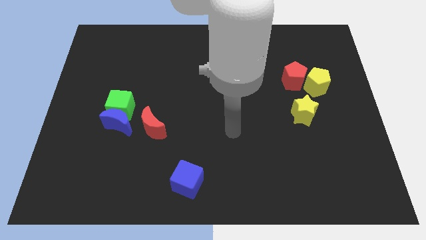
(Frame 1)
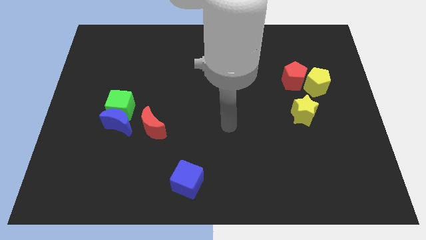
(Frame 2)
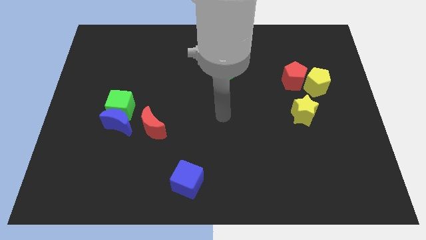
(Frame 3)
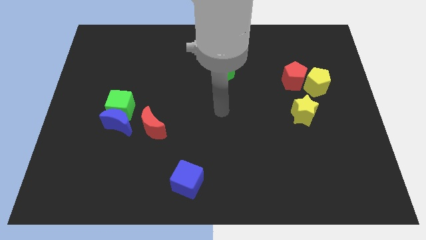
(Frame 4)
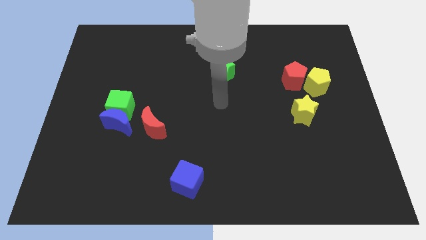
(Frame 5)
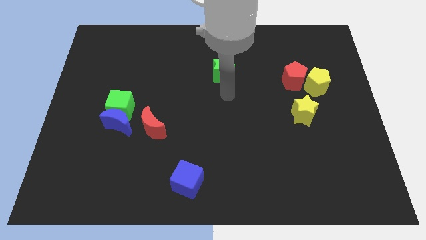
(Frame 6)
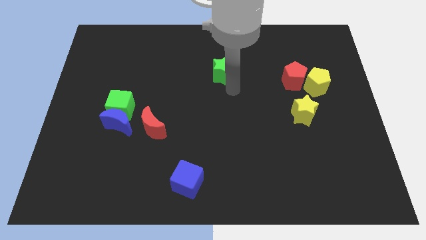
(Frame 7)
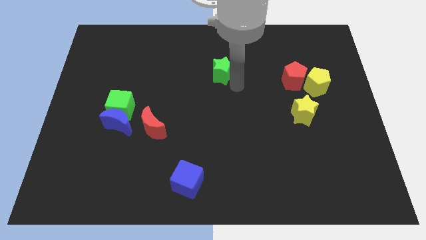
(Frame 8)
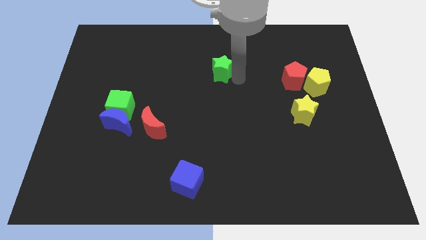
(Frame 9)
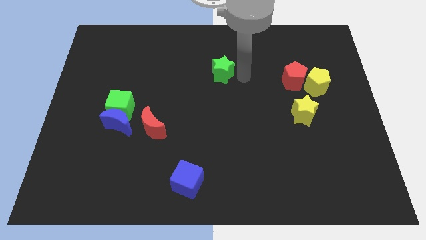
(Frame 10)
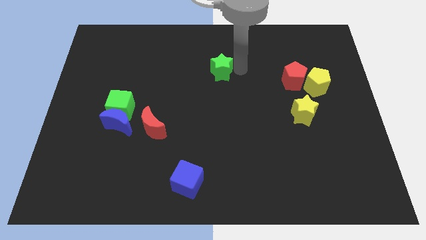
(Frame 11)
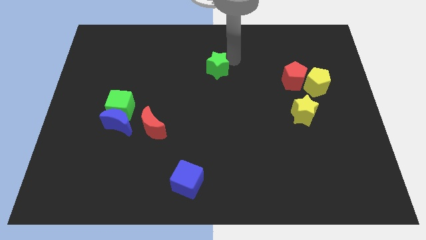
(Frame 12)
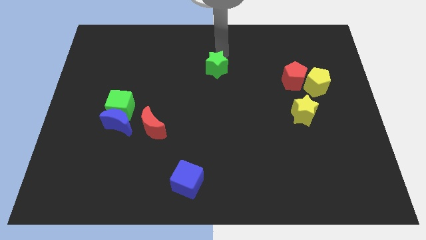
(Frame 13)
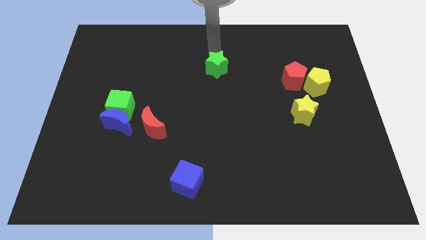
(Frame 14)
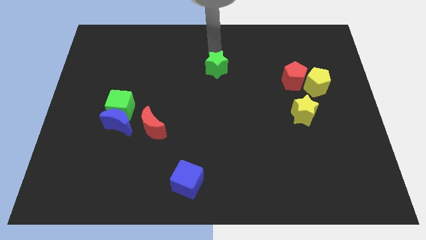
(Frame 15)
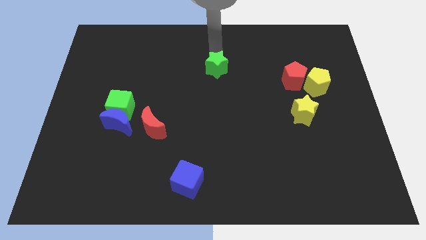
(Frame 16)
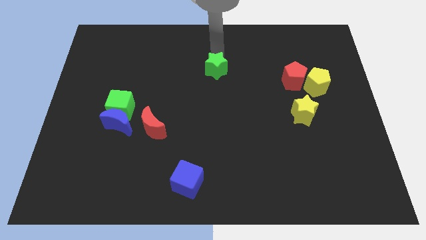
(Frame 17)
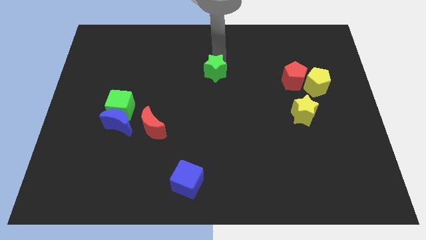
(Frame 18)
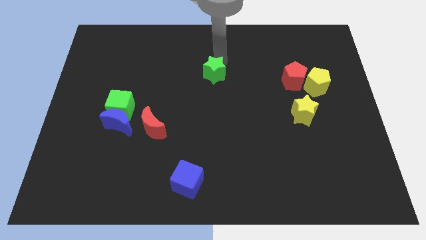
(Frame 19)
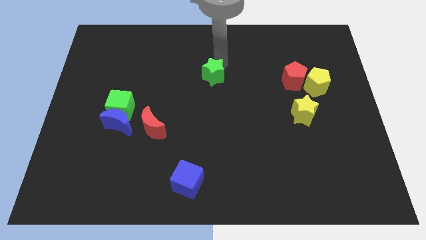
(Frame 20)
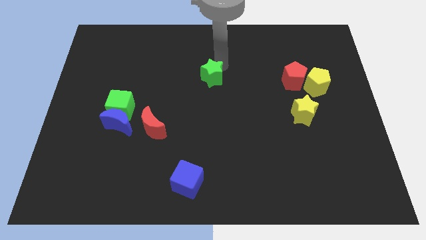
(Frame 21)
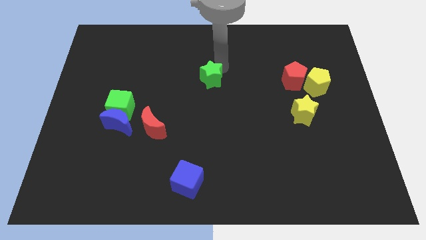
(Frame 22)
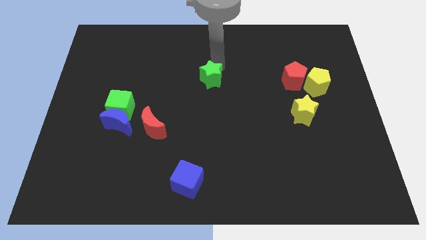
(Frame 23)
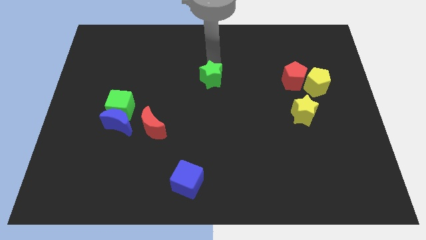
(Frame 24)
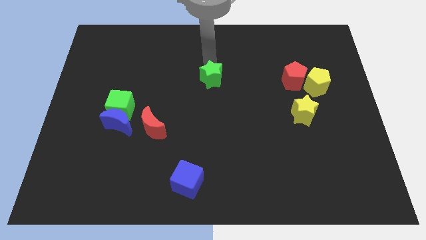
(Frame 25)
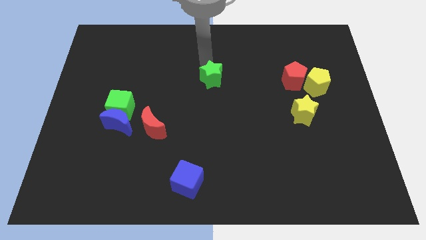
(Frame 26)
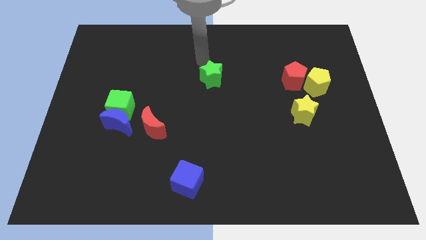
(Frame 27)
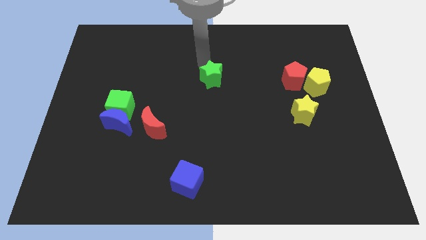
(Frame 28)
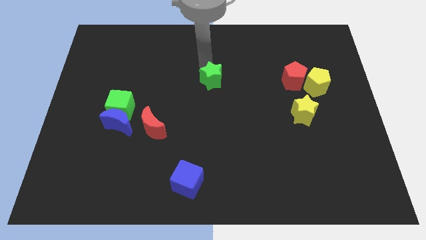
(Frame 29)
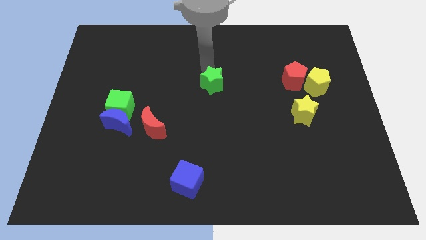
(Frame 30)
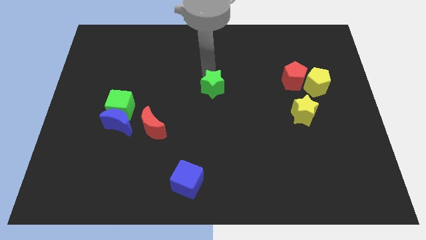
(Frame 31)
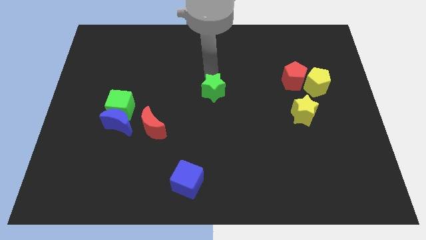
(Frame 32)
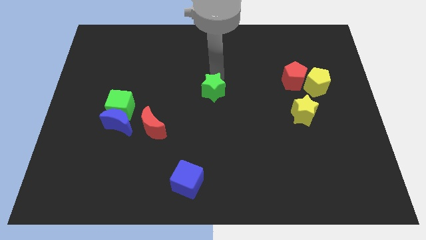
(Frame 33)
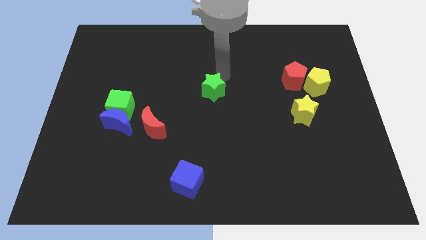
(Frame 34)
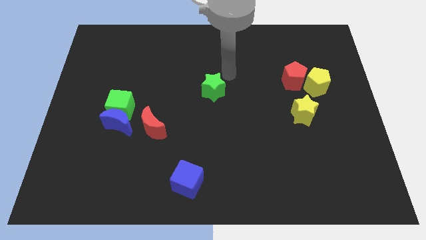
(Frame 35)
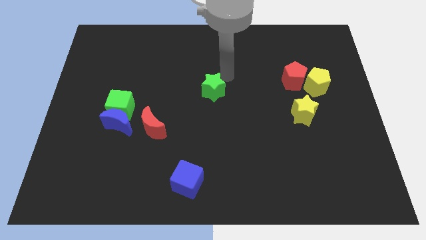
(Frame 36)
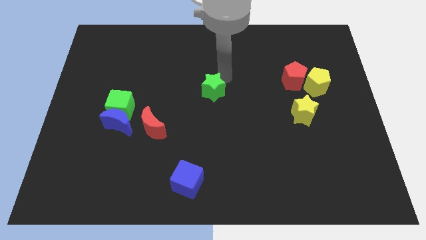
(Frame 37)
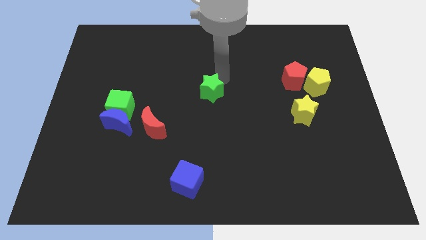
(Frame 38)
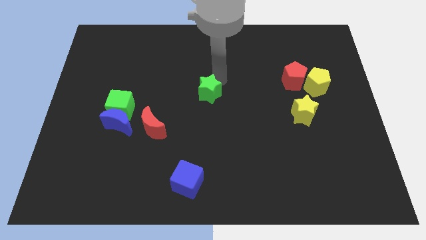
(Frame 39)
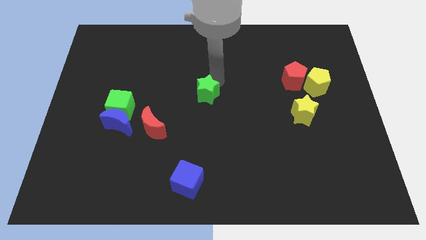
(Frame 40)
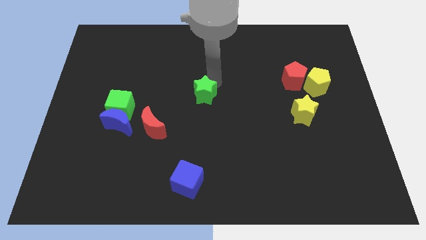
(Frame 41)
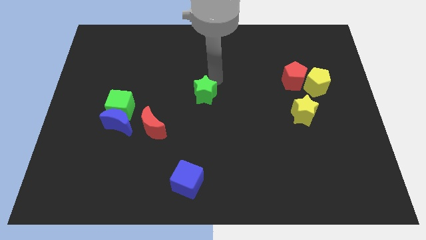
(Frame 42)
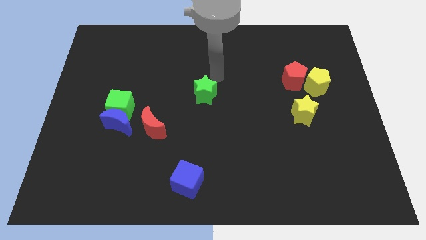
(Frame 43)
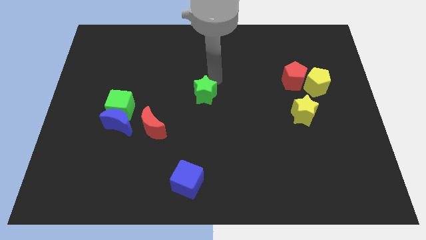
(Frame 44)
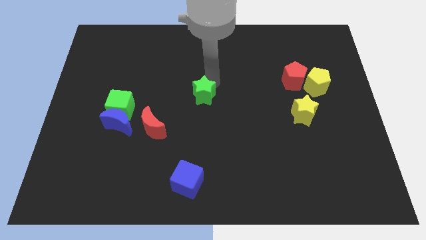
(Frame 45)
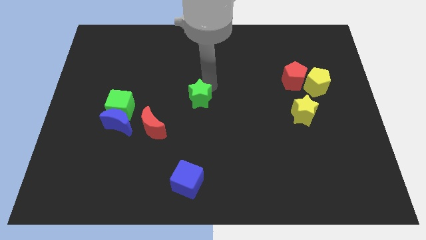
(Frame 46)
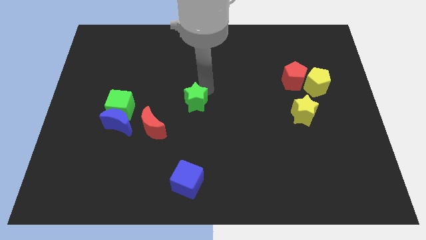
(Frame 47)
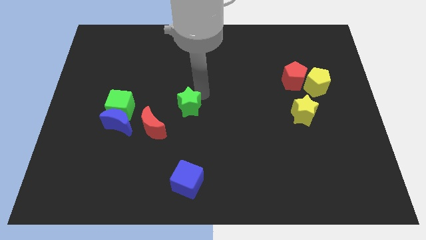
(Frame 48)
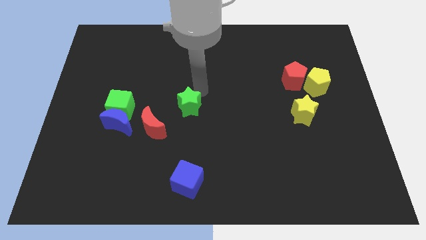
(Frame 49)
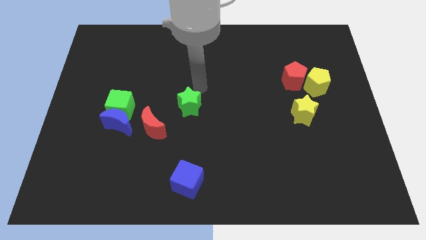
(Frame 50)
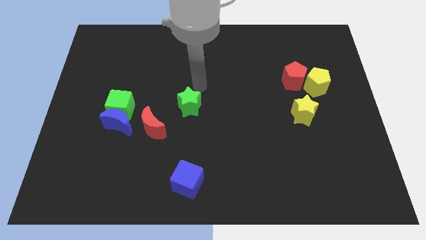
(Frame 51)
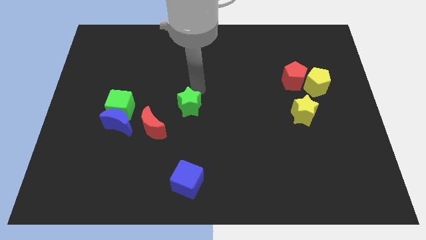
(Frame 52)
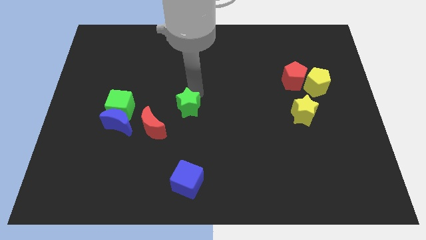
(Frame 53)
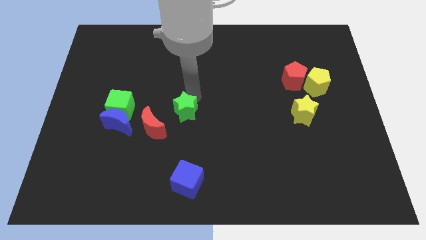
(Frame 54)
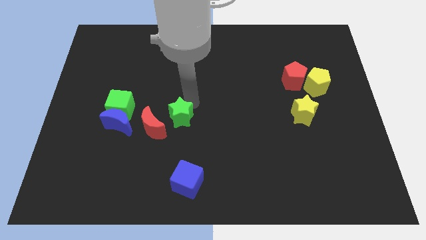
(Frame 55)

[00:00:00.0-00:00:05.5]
put the green star just right of the blue moon

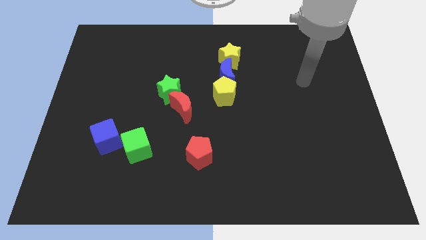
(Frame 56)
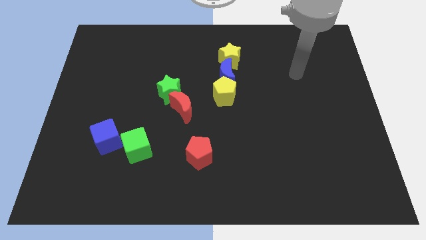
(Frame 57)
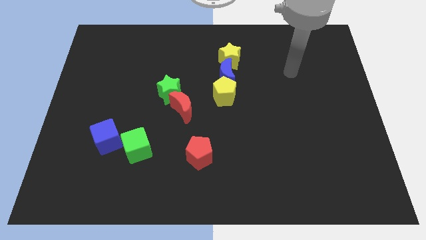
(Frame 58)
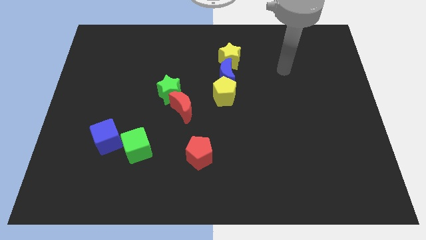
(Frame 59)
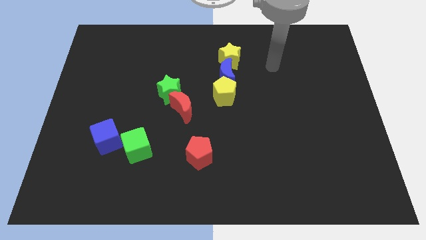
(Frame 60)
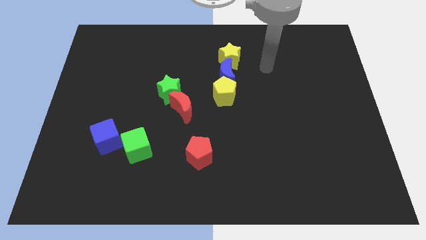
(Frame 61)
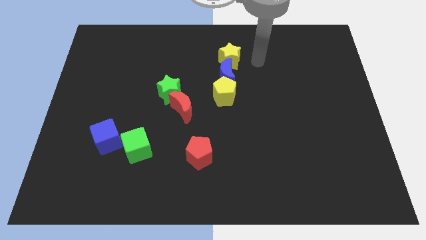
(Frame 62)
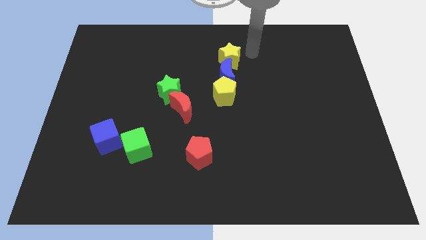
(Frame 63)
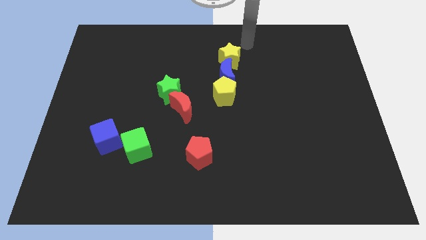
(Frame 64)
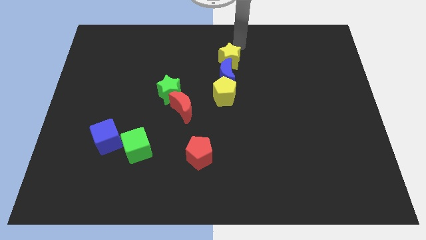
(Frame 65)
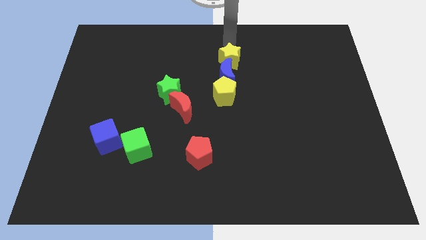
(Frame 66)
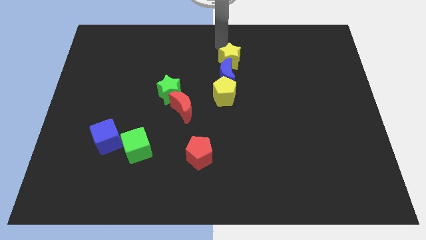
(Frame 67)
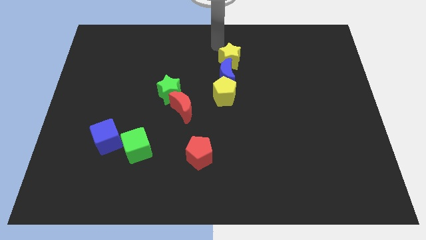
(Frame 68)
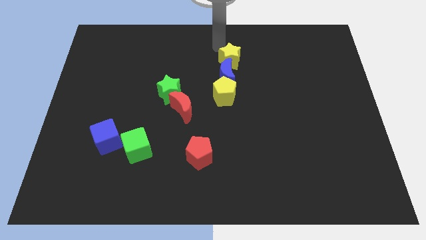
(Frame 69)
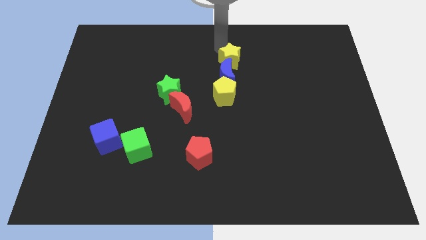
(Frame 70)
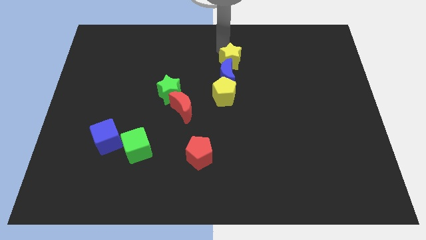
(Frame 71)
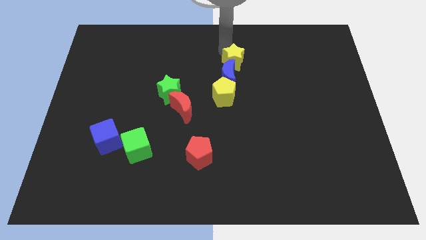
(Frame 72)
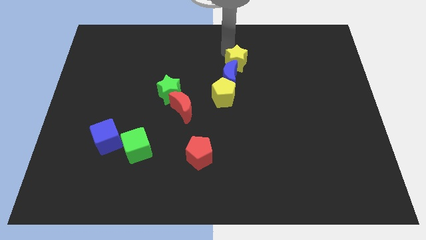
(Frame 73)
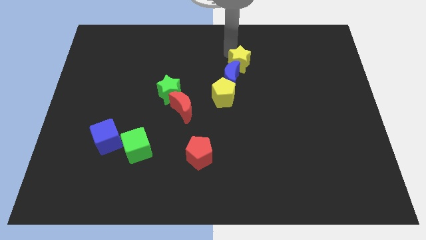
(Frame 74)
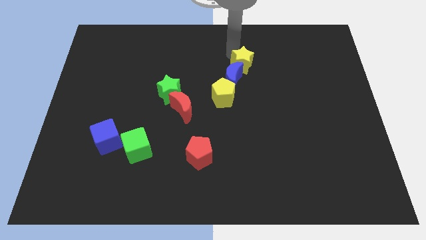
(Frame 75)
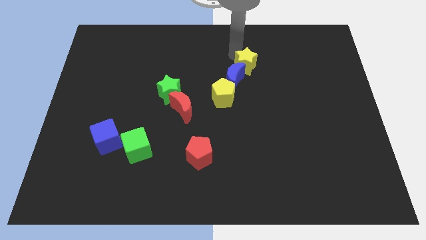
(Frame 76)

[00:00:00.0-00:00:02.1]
move the yellow star to the top right of the yellow pentagon
